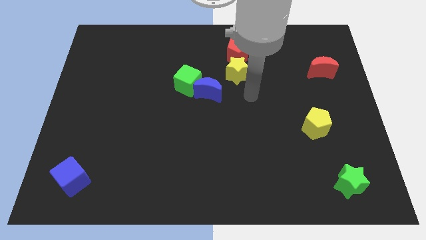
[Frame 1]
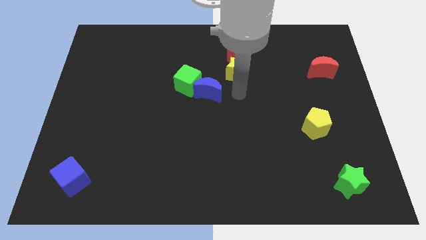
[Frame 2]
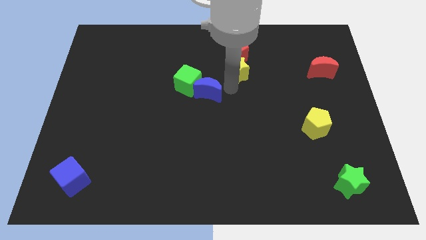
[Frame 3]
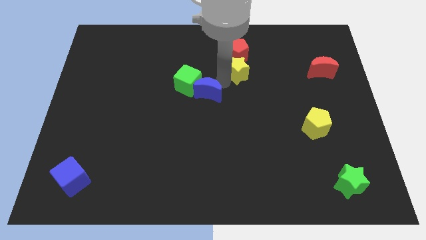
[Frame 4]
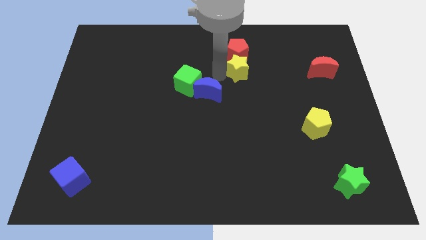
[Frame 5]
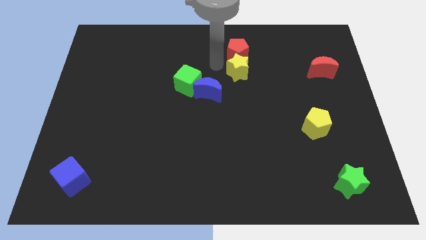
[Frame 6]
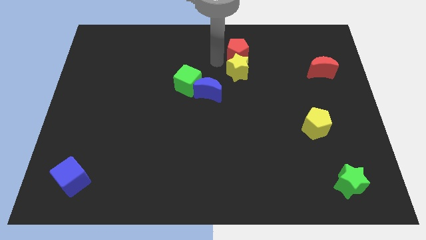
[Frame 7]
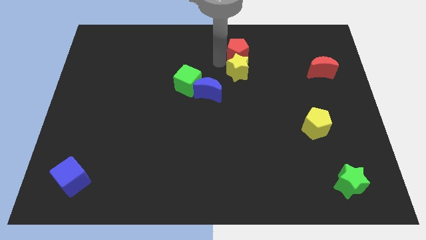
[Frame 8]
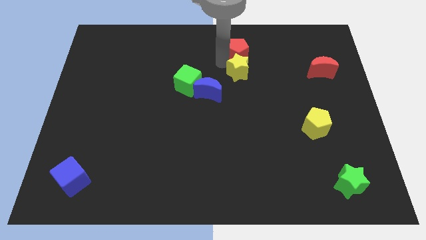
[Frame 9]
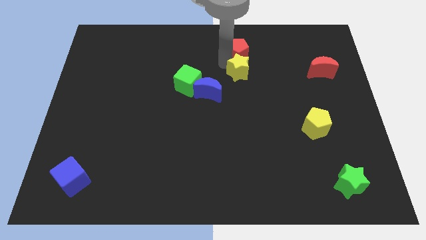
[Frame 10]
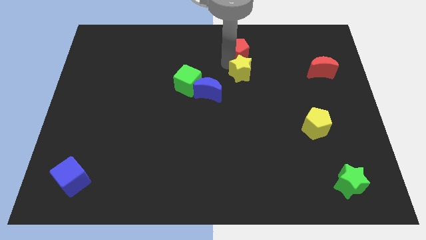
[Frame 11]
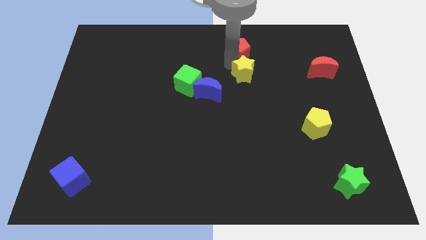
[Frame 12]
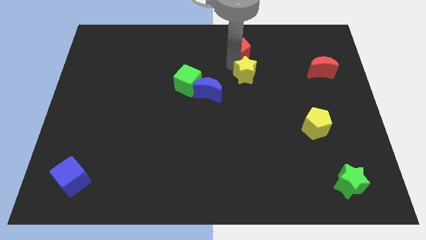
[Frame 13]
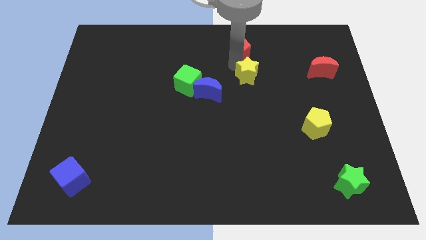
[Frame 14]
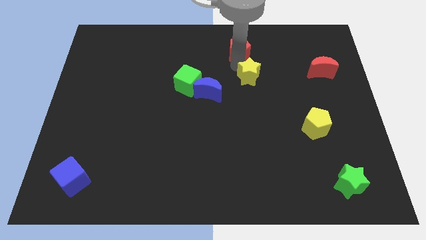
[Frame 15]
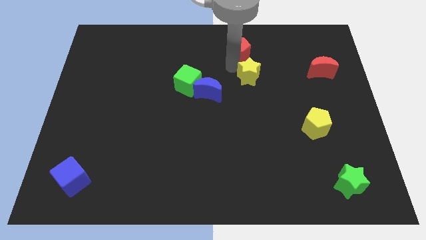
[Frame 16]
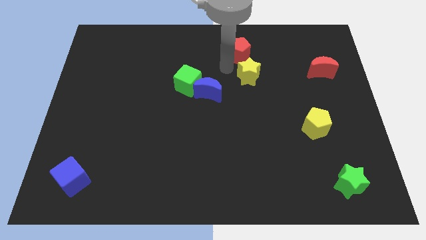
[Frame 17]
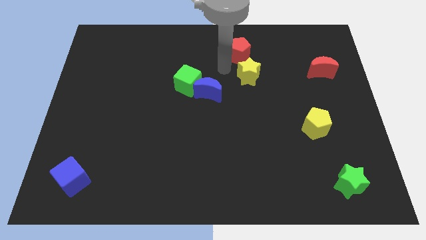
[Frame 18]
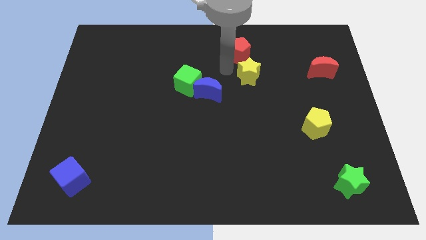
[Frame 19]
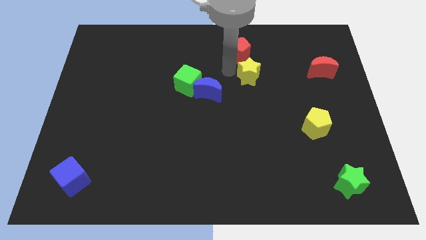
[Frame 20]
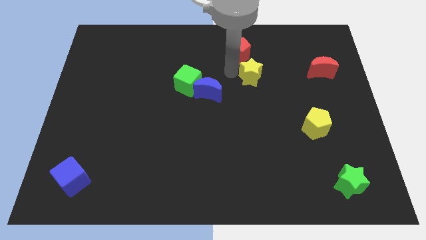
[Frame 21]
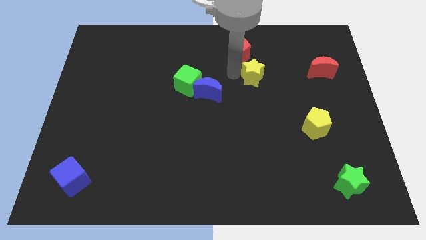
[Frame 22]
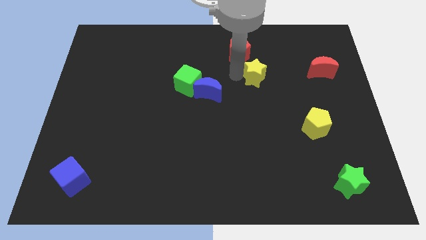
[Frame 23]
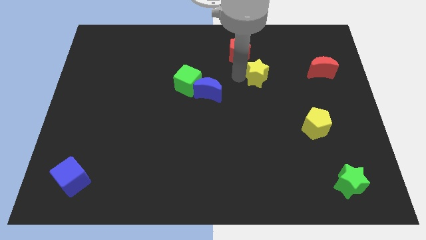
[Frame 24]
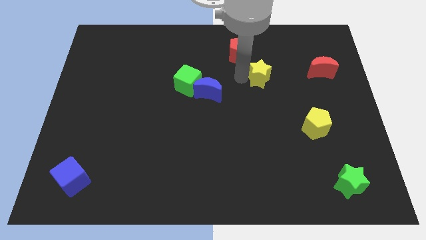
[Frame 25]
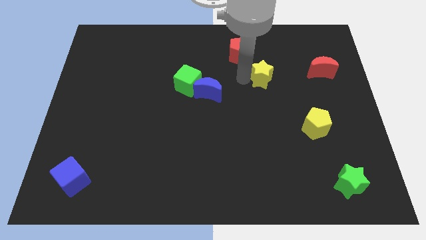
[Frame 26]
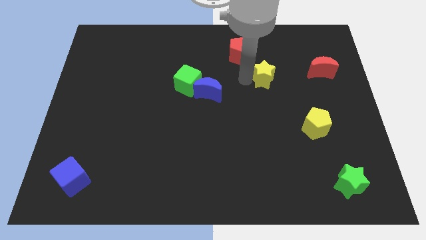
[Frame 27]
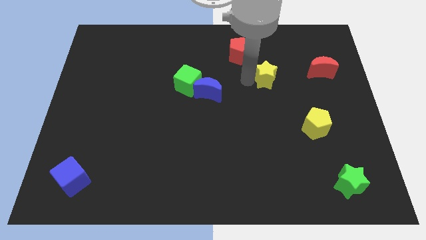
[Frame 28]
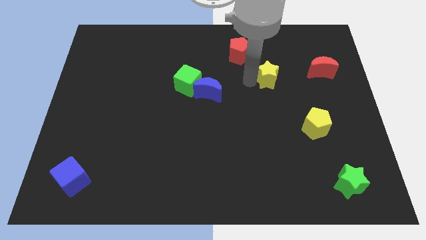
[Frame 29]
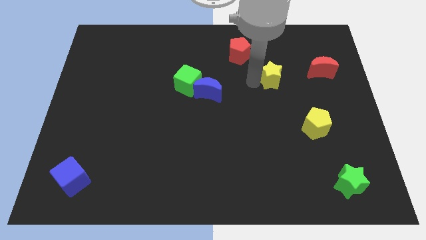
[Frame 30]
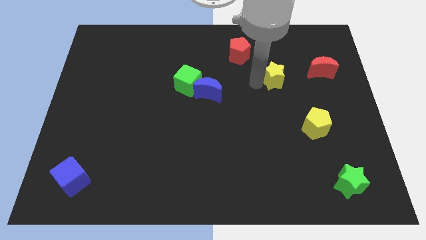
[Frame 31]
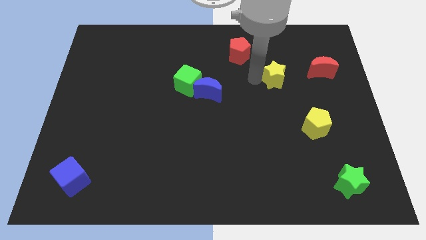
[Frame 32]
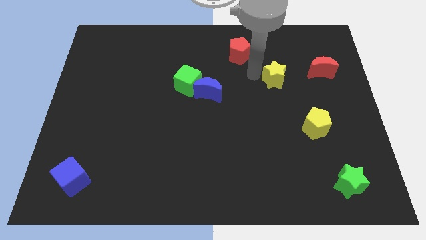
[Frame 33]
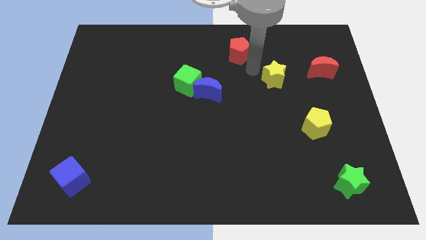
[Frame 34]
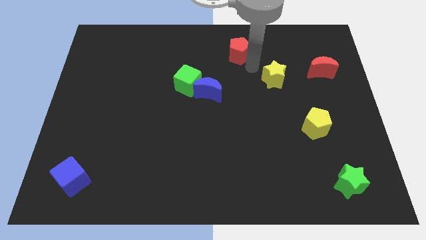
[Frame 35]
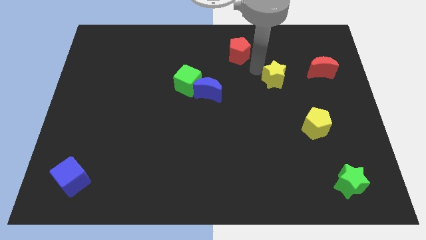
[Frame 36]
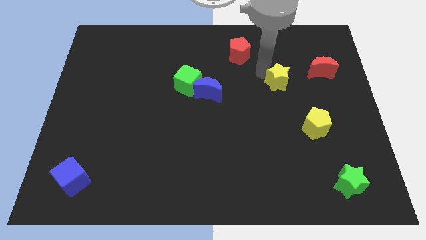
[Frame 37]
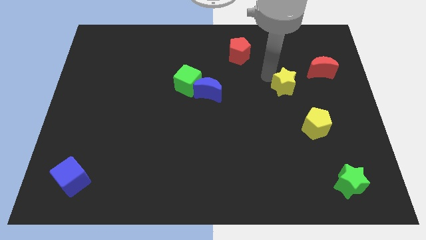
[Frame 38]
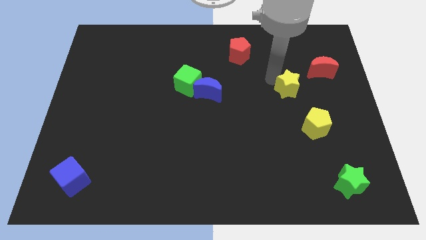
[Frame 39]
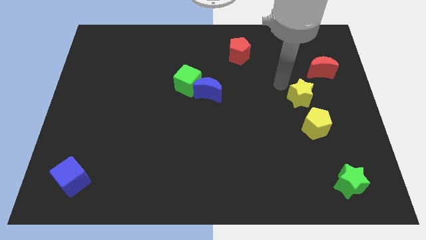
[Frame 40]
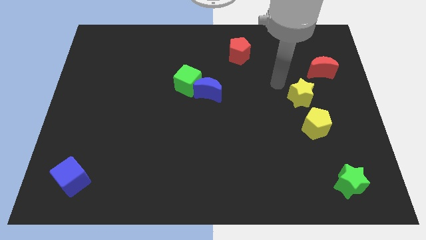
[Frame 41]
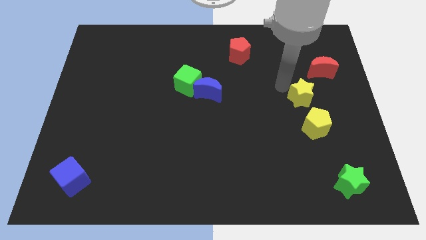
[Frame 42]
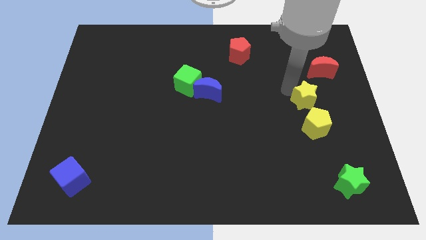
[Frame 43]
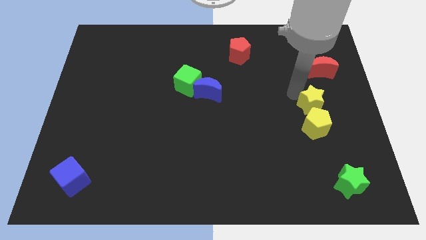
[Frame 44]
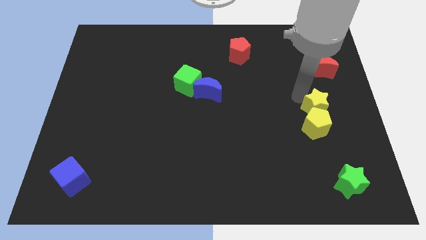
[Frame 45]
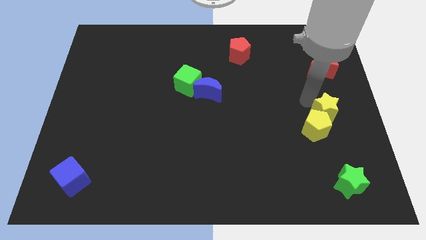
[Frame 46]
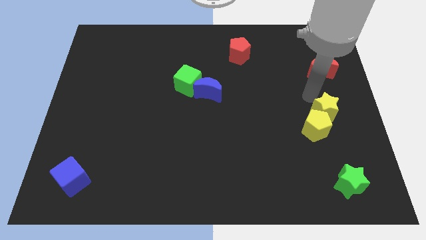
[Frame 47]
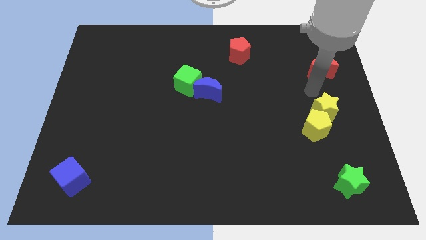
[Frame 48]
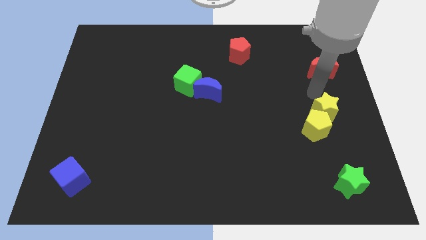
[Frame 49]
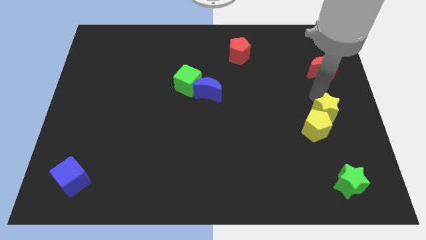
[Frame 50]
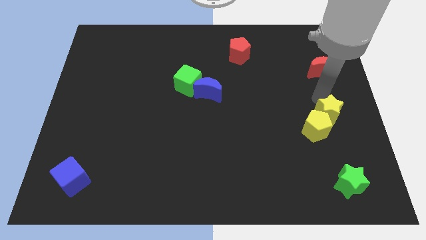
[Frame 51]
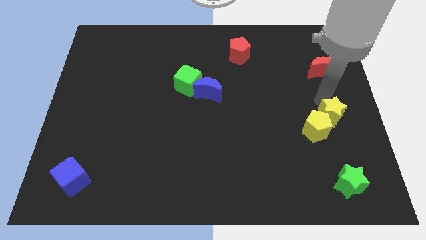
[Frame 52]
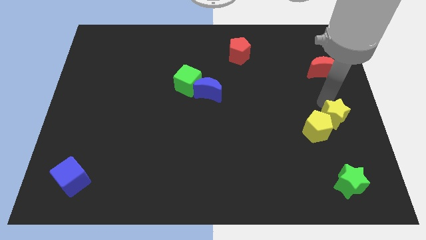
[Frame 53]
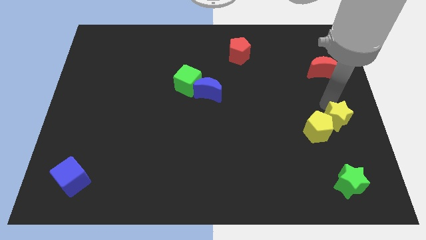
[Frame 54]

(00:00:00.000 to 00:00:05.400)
push the yellow star to the top side of the green star
